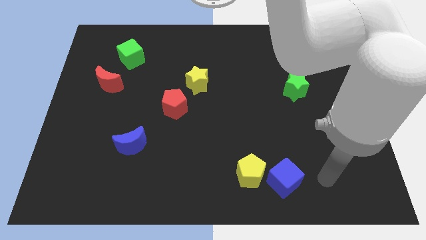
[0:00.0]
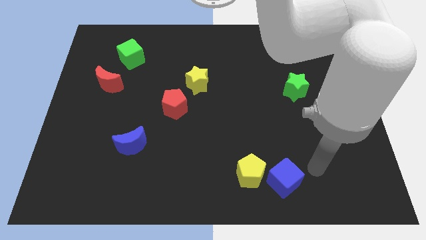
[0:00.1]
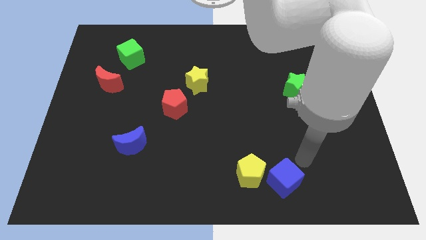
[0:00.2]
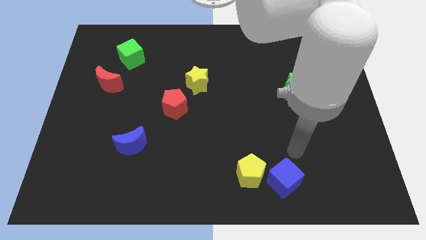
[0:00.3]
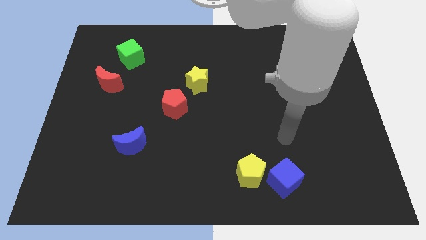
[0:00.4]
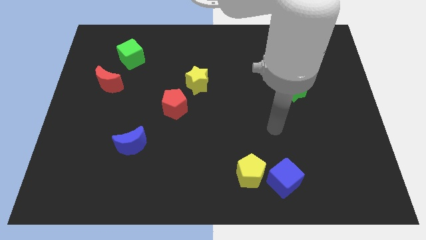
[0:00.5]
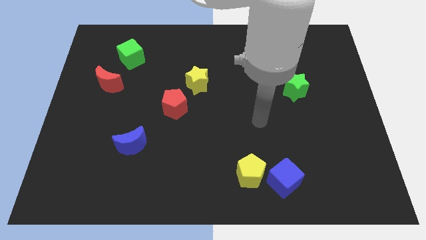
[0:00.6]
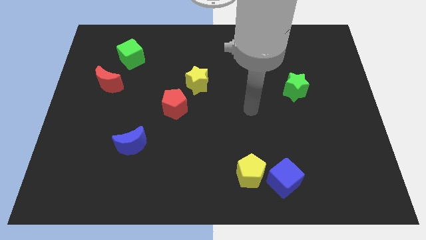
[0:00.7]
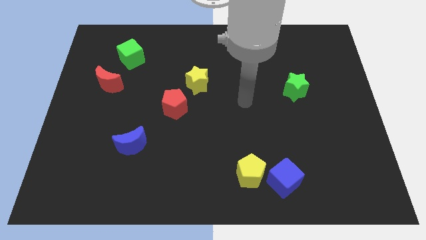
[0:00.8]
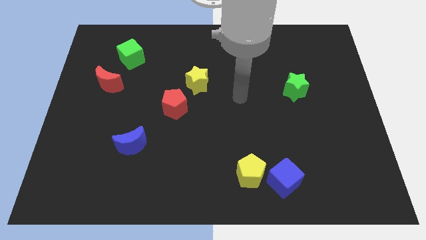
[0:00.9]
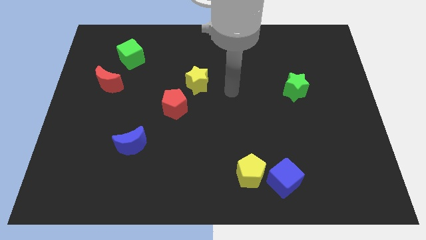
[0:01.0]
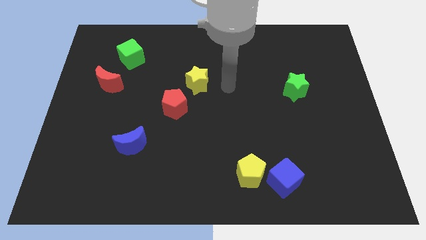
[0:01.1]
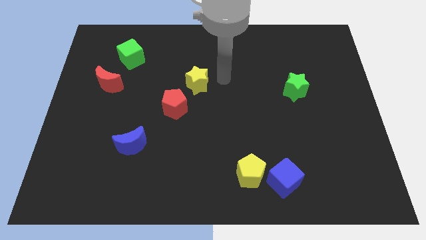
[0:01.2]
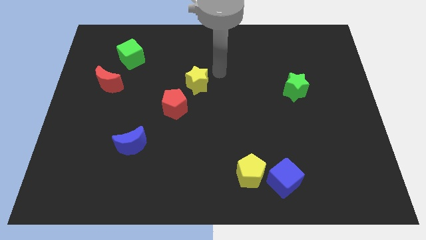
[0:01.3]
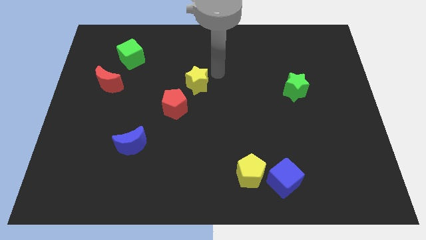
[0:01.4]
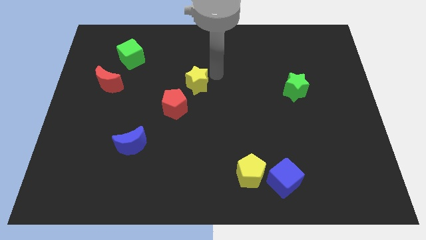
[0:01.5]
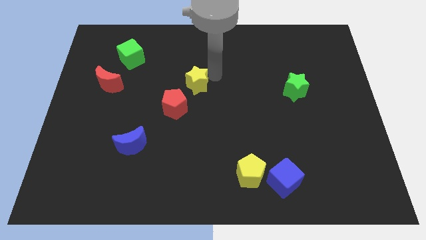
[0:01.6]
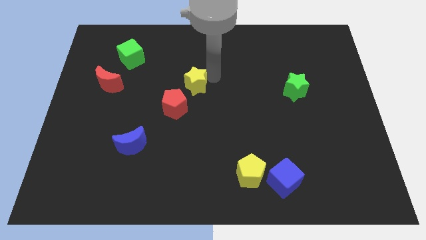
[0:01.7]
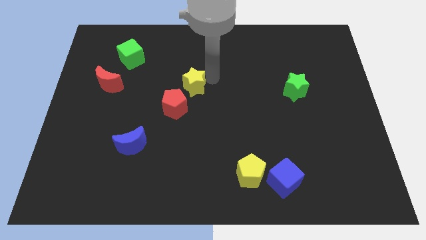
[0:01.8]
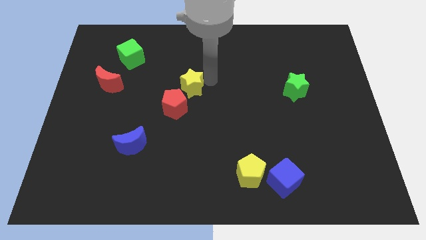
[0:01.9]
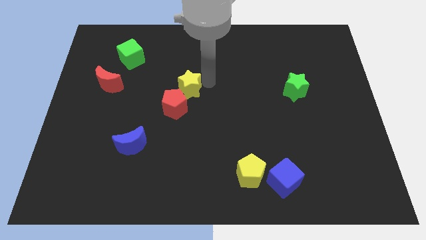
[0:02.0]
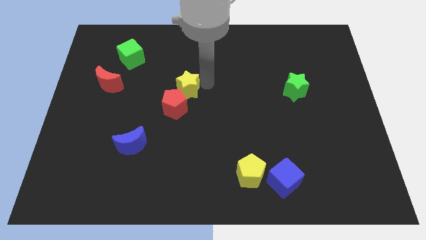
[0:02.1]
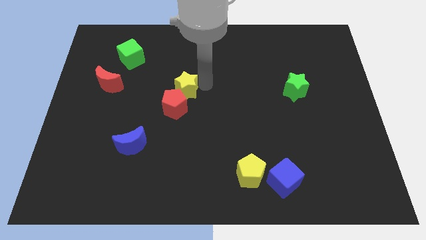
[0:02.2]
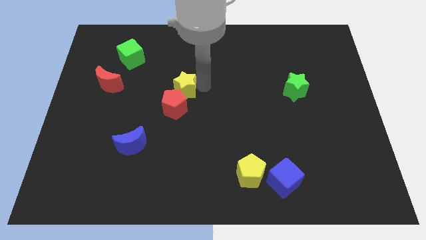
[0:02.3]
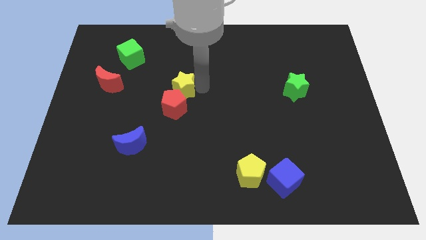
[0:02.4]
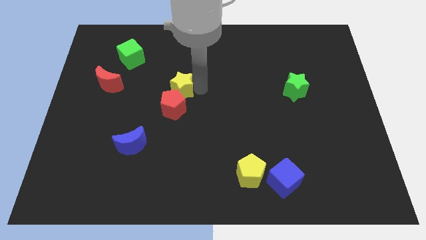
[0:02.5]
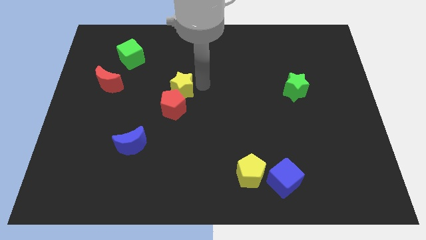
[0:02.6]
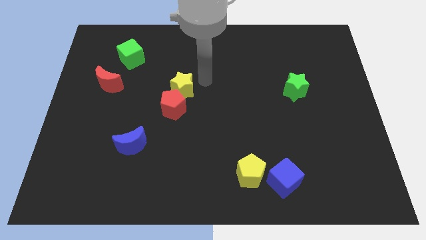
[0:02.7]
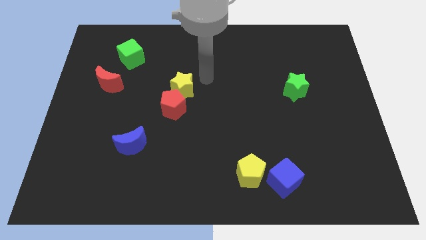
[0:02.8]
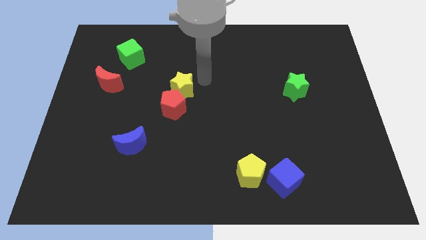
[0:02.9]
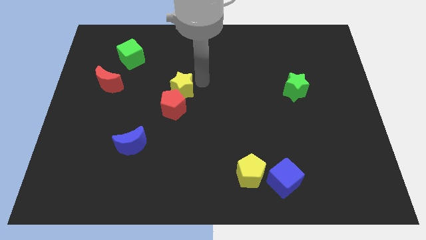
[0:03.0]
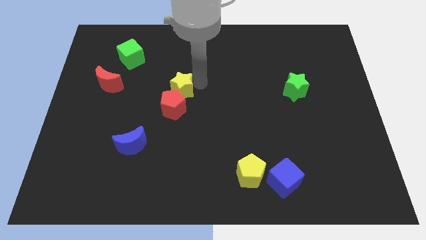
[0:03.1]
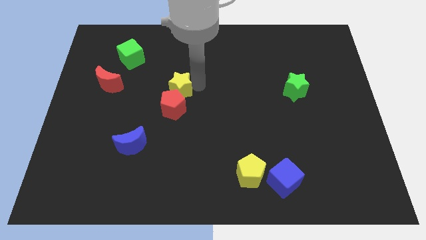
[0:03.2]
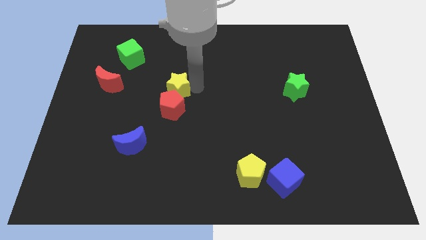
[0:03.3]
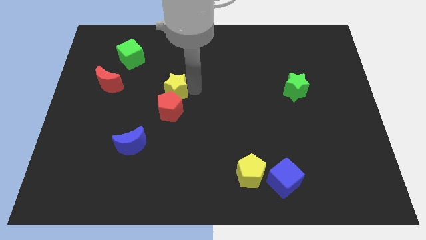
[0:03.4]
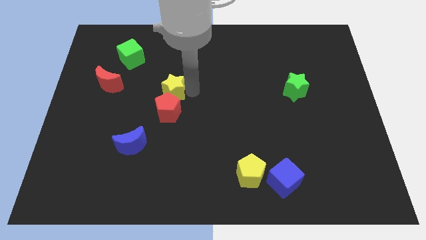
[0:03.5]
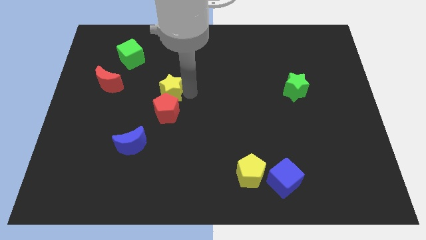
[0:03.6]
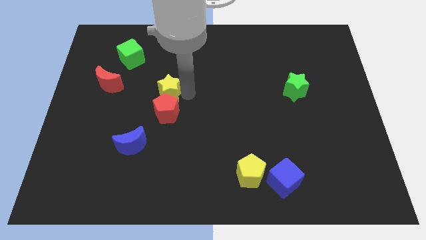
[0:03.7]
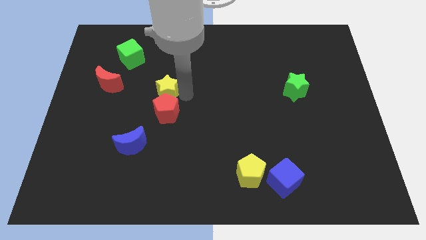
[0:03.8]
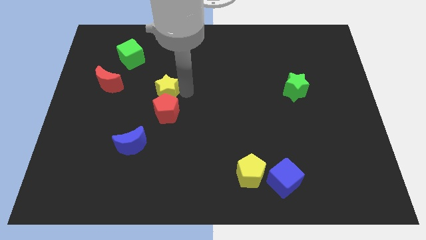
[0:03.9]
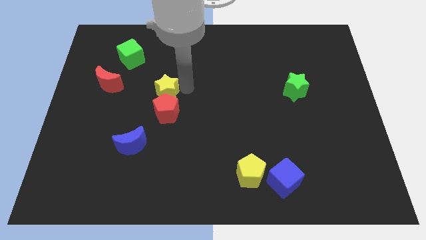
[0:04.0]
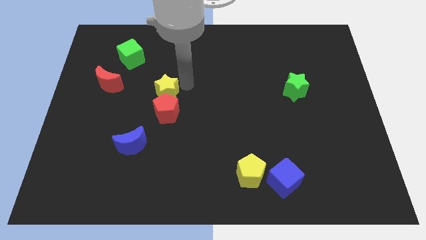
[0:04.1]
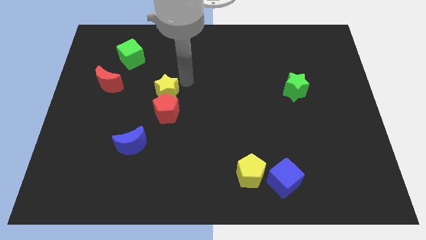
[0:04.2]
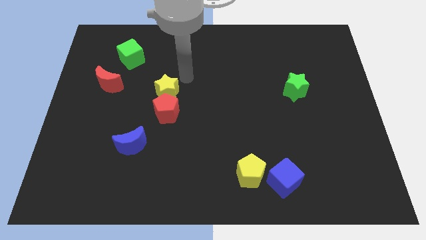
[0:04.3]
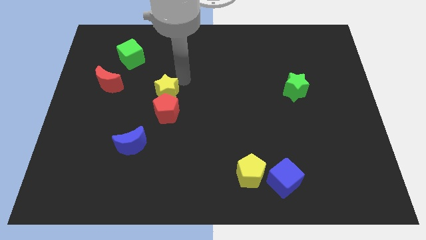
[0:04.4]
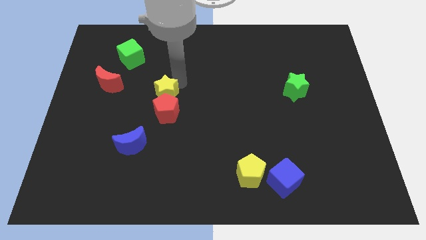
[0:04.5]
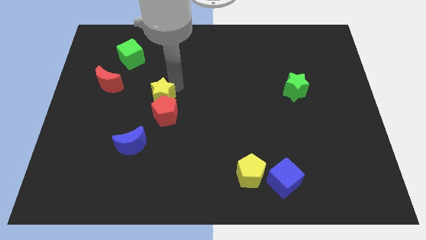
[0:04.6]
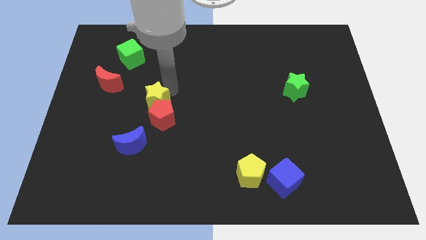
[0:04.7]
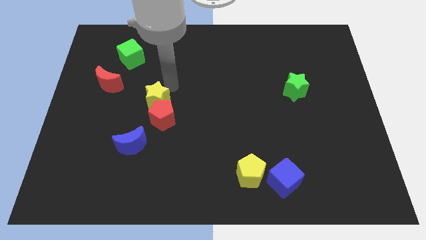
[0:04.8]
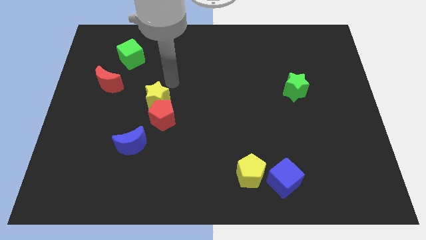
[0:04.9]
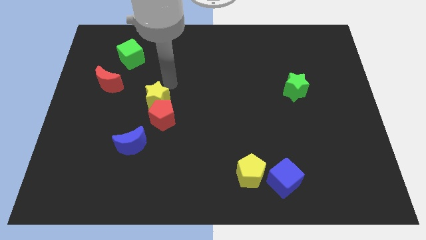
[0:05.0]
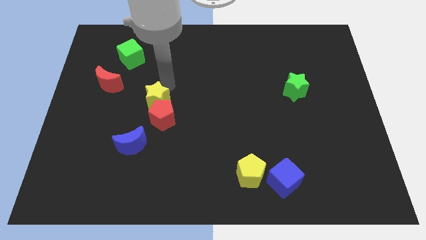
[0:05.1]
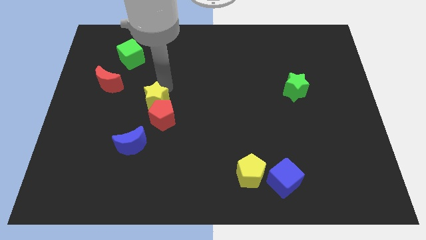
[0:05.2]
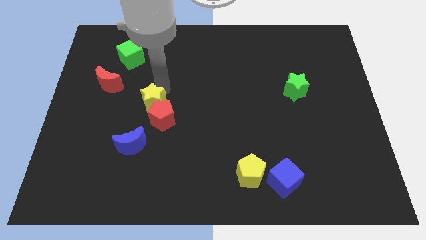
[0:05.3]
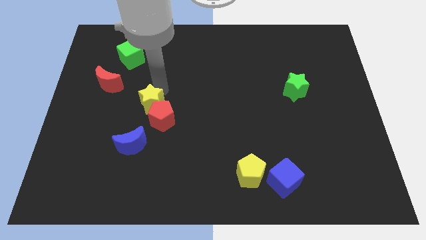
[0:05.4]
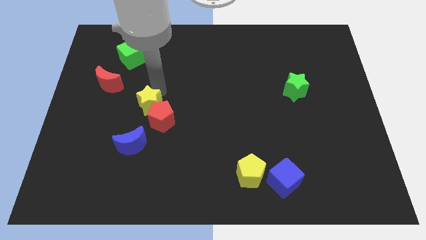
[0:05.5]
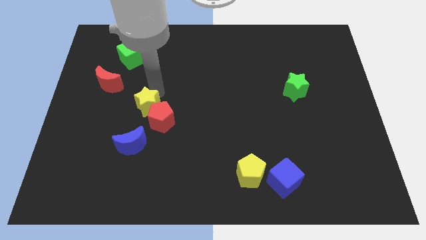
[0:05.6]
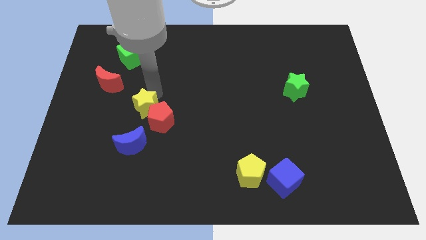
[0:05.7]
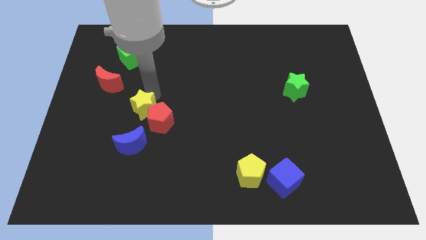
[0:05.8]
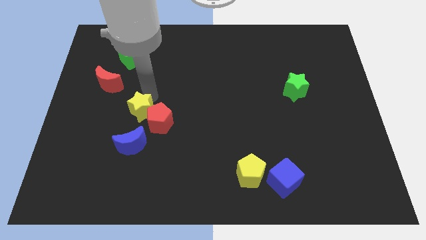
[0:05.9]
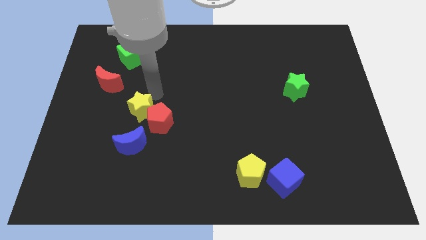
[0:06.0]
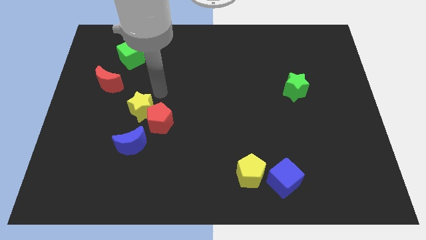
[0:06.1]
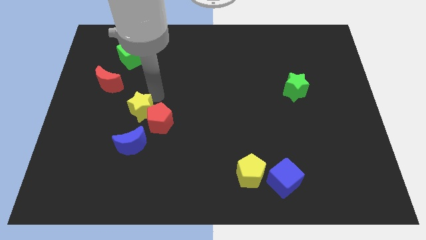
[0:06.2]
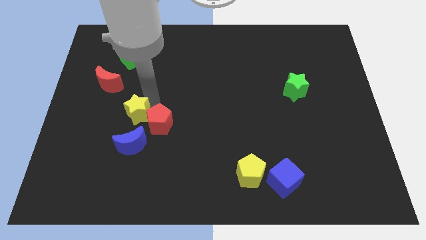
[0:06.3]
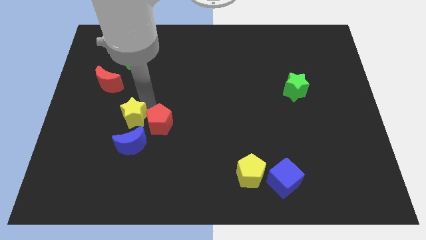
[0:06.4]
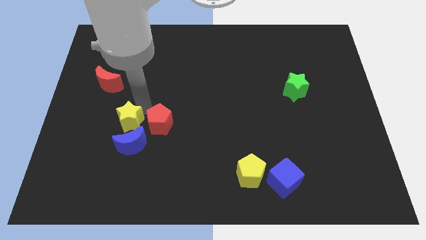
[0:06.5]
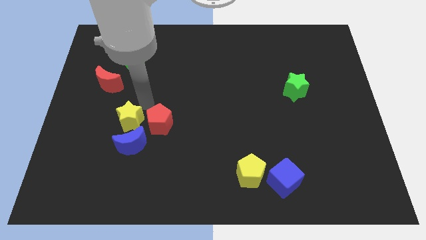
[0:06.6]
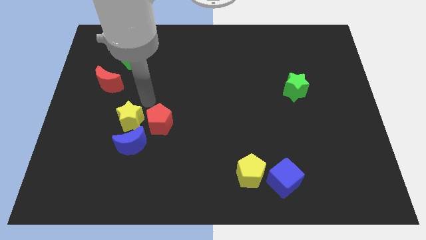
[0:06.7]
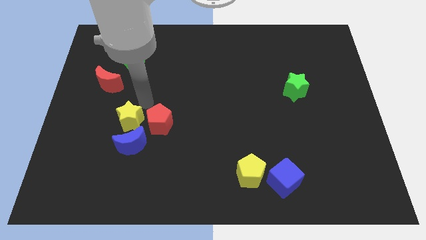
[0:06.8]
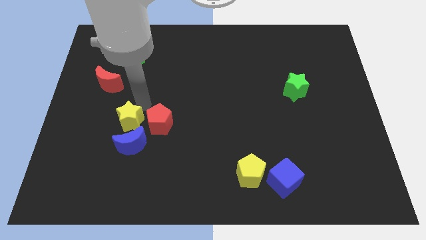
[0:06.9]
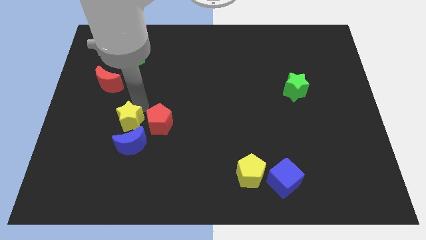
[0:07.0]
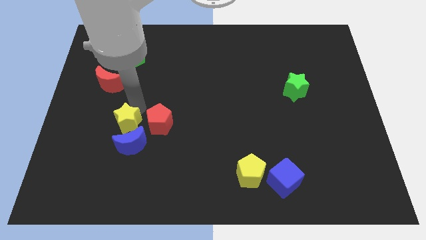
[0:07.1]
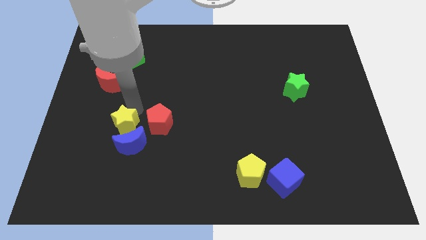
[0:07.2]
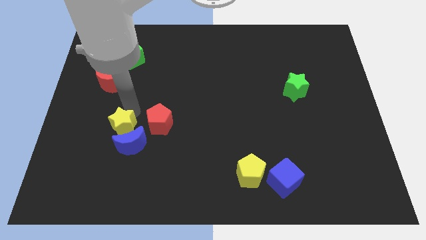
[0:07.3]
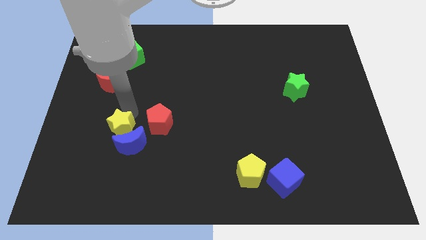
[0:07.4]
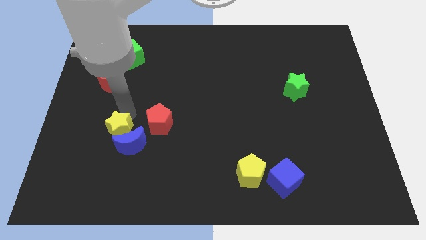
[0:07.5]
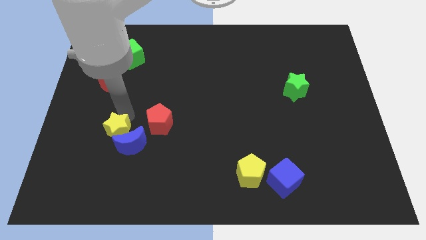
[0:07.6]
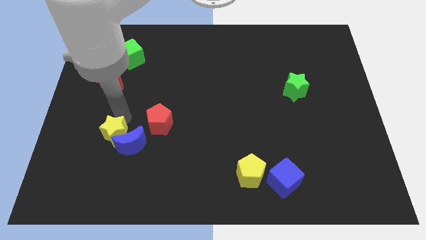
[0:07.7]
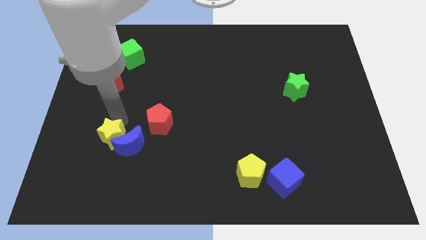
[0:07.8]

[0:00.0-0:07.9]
put the yellow star diagonally down and to the left of the blue moon
